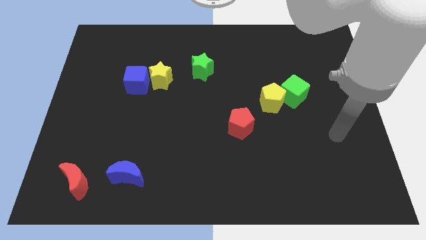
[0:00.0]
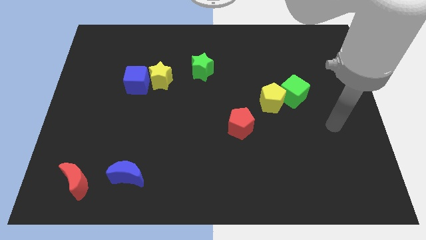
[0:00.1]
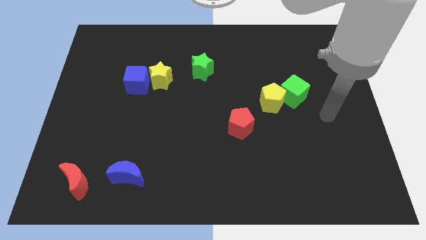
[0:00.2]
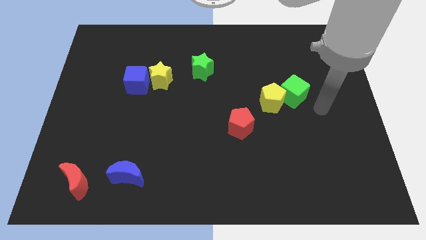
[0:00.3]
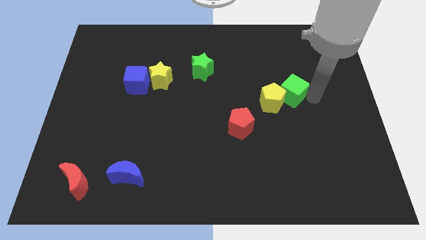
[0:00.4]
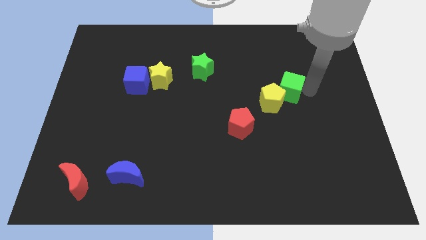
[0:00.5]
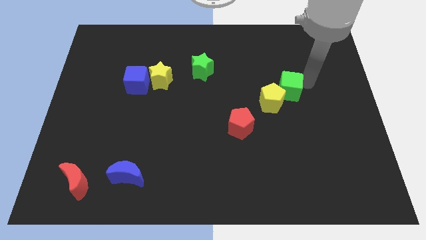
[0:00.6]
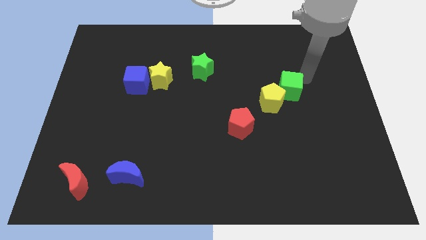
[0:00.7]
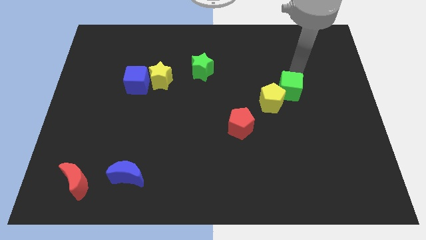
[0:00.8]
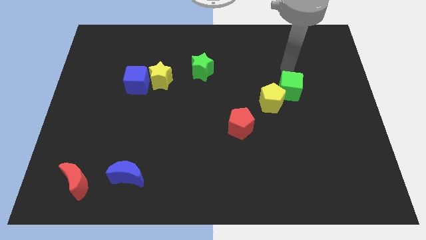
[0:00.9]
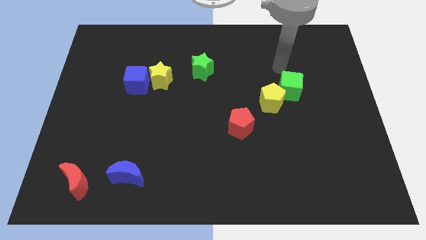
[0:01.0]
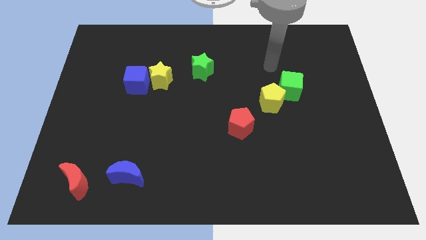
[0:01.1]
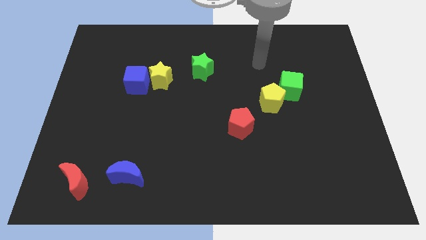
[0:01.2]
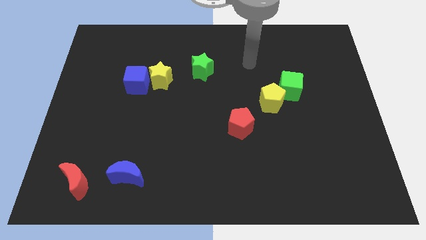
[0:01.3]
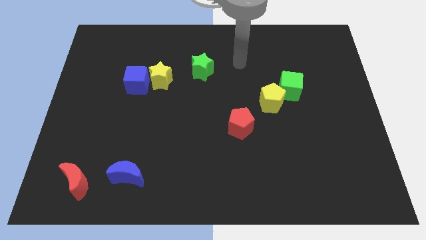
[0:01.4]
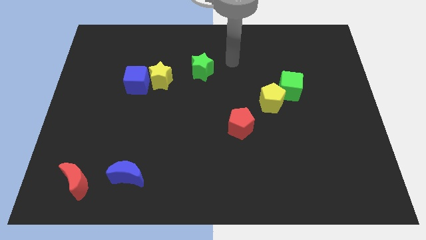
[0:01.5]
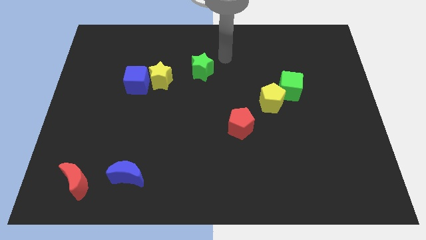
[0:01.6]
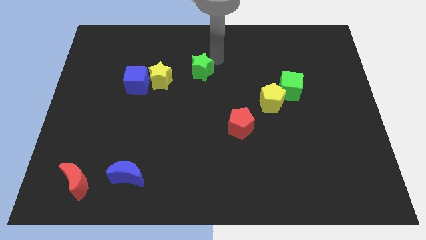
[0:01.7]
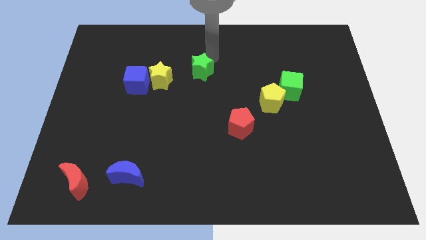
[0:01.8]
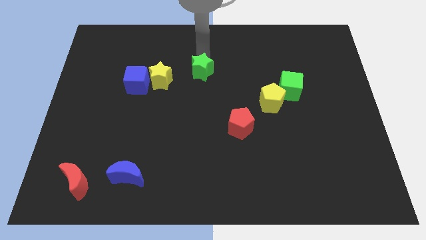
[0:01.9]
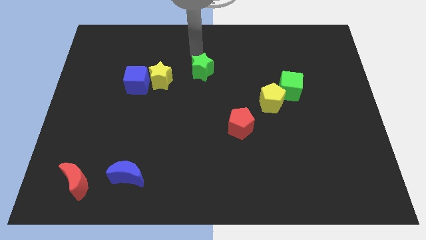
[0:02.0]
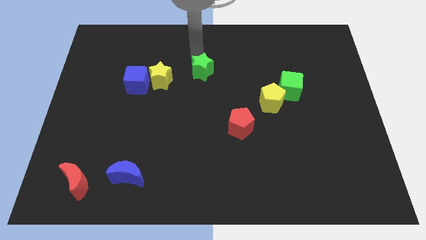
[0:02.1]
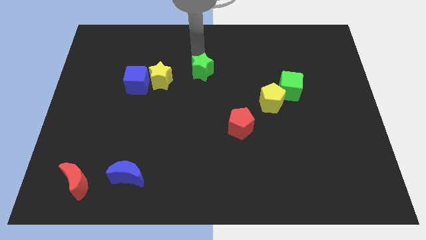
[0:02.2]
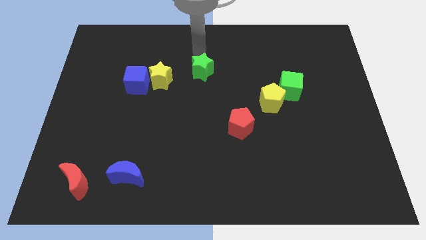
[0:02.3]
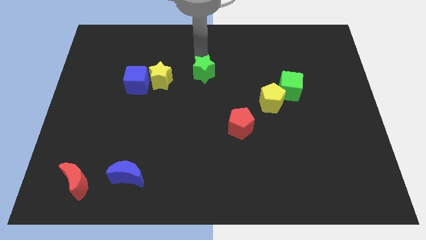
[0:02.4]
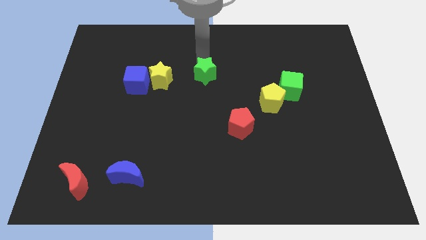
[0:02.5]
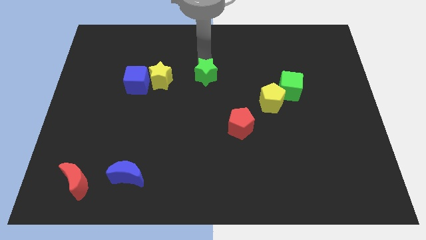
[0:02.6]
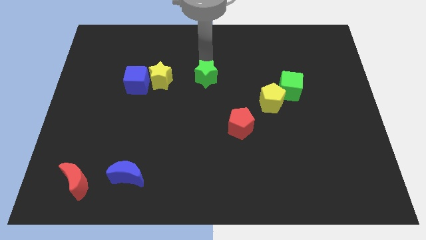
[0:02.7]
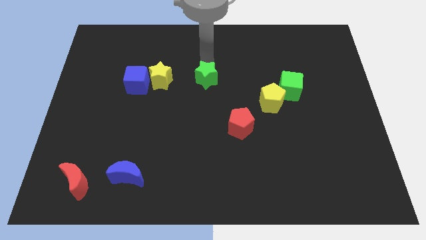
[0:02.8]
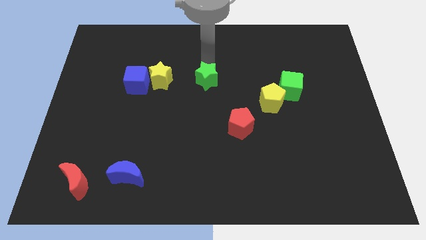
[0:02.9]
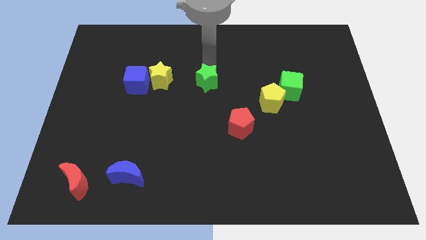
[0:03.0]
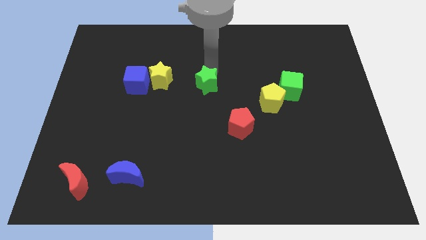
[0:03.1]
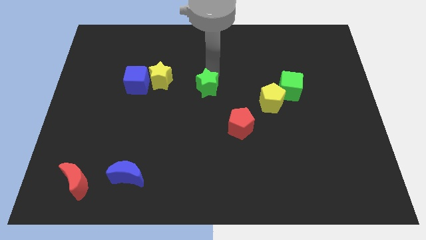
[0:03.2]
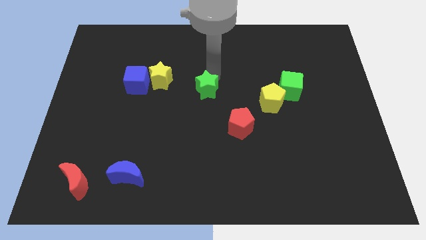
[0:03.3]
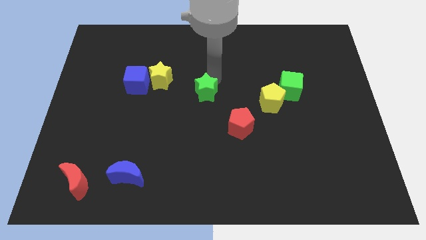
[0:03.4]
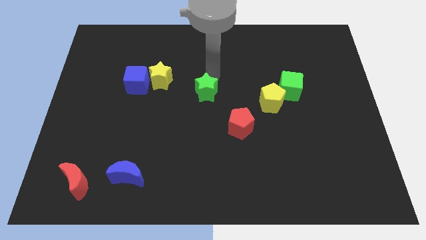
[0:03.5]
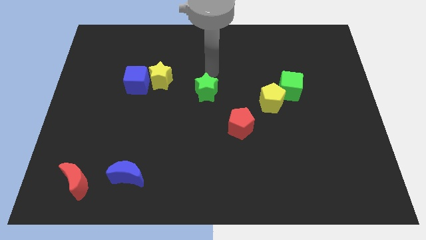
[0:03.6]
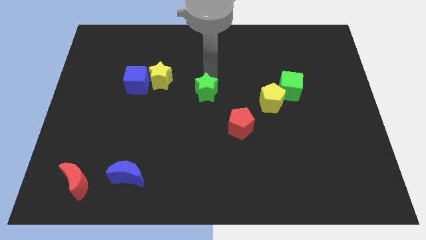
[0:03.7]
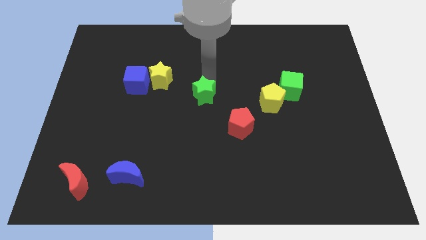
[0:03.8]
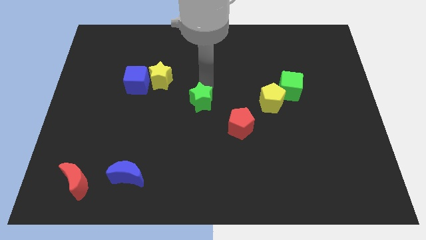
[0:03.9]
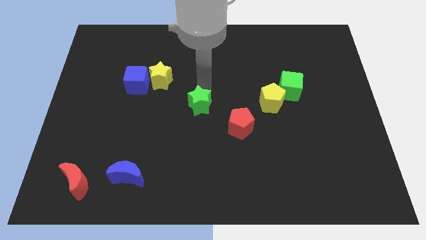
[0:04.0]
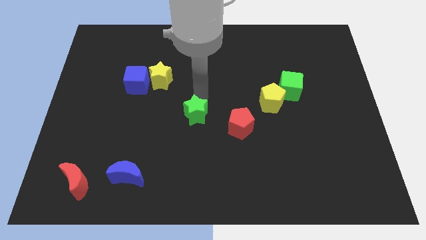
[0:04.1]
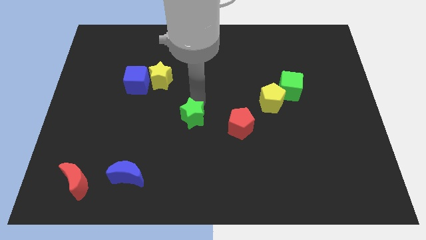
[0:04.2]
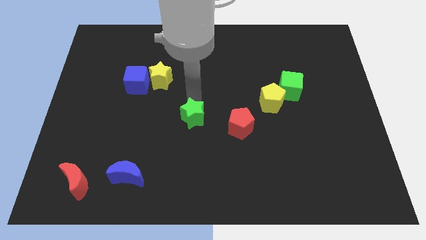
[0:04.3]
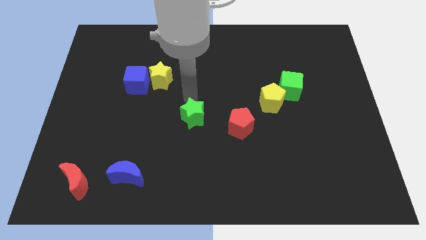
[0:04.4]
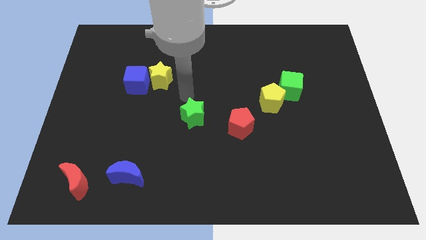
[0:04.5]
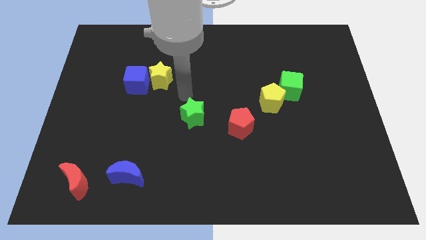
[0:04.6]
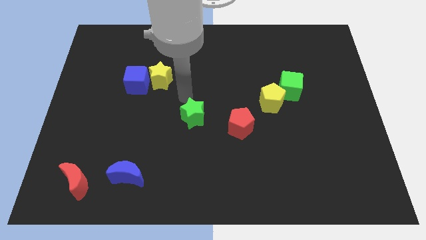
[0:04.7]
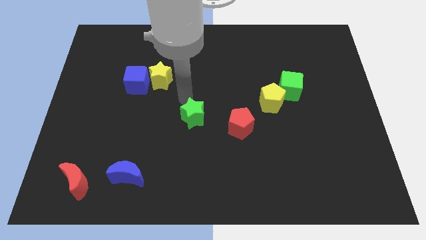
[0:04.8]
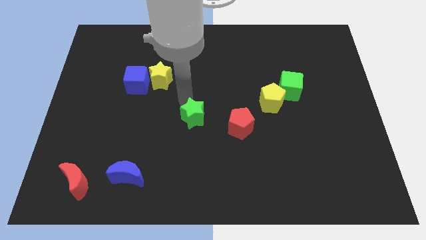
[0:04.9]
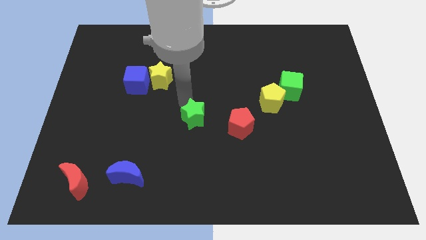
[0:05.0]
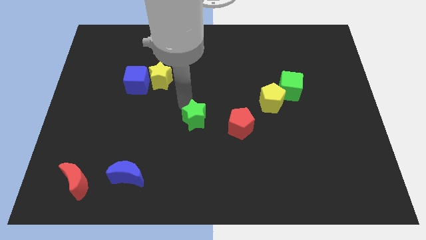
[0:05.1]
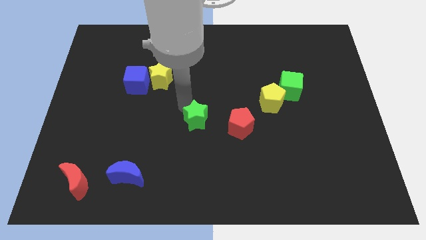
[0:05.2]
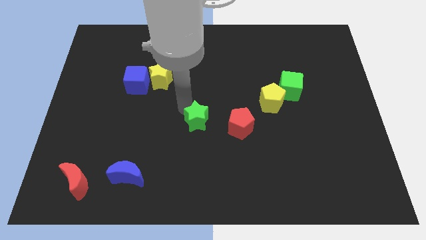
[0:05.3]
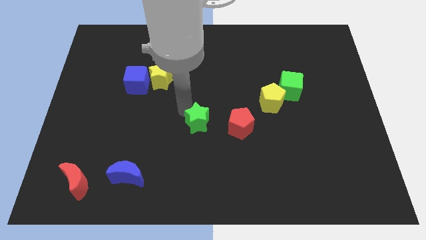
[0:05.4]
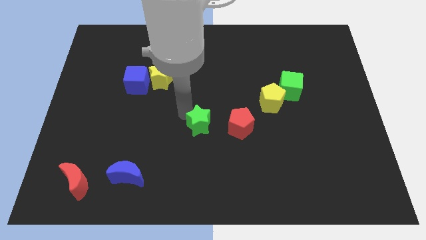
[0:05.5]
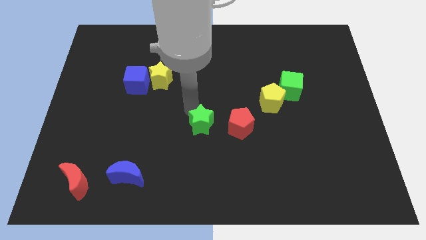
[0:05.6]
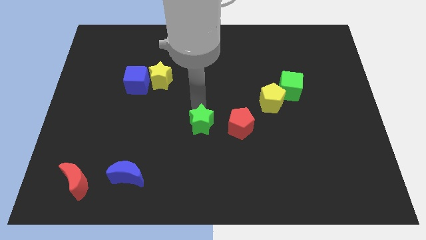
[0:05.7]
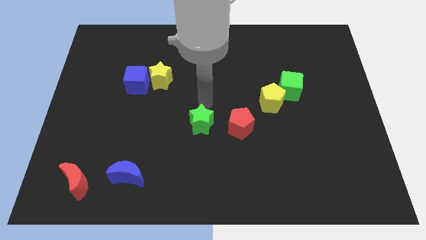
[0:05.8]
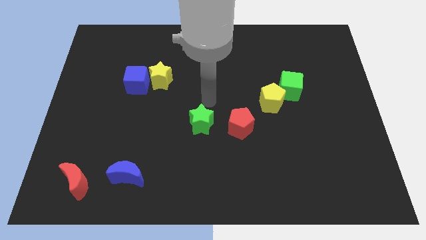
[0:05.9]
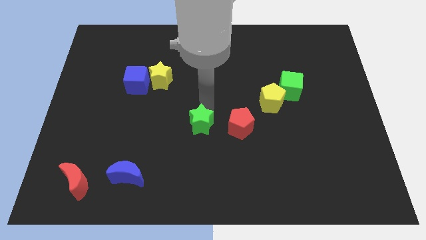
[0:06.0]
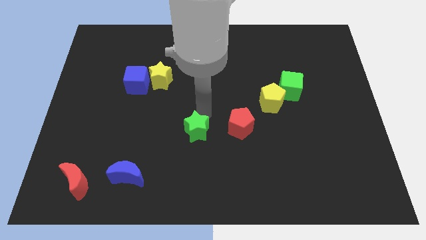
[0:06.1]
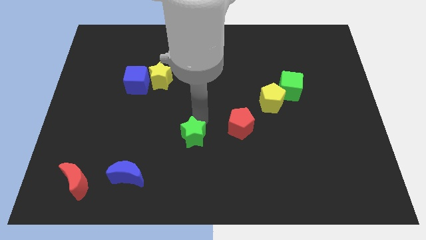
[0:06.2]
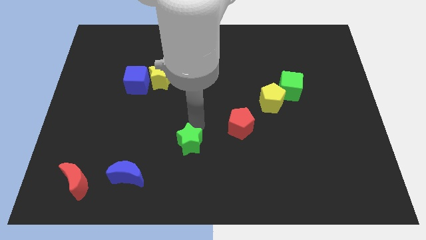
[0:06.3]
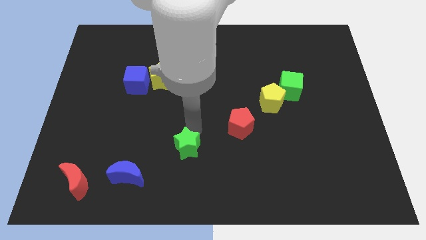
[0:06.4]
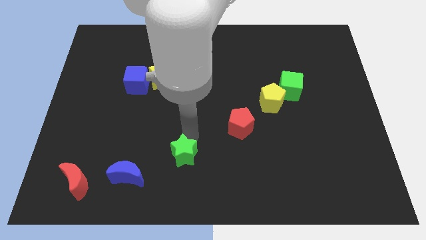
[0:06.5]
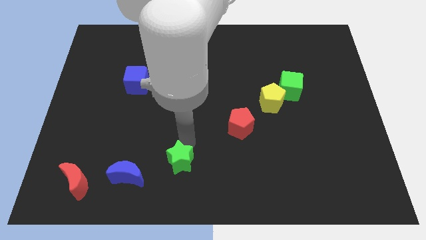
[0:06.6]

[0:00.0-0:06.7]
put the green star just right of the blue moon
